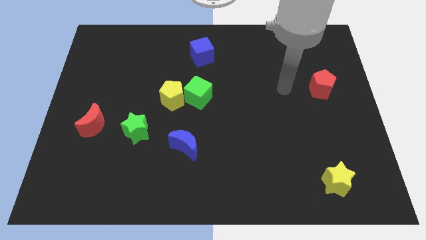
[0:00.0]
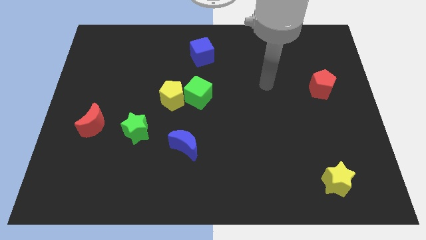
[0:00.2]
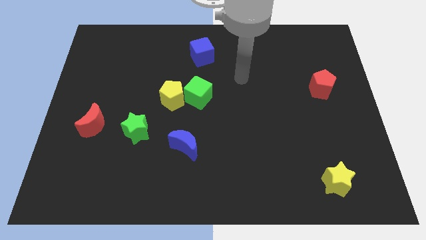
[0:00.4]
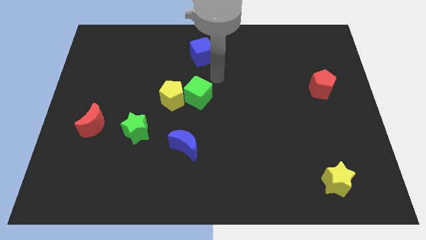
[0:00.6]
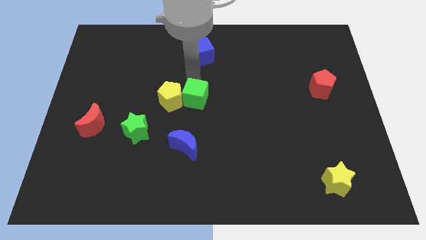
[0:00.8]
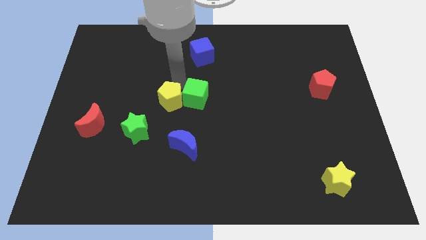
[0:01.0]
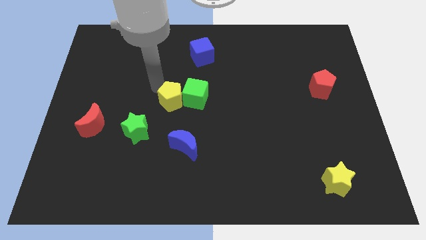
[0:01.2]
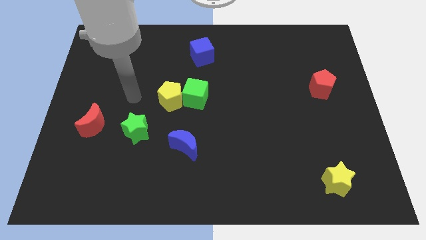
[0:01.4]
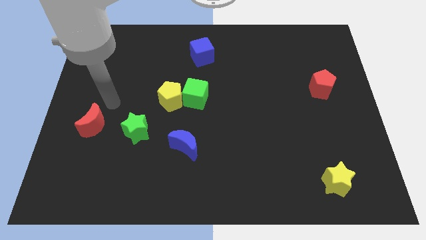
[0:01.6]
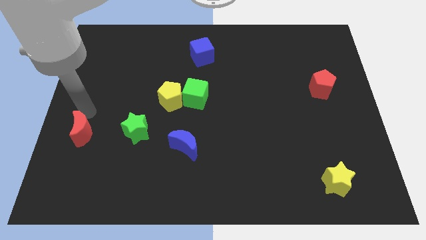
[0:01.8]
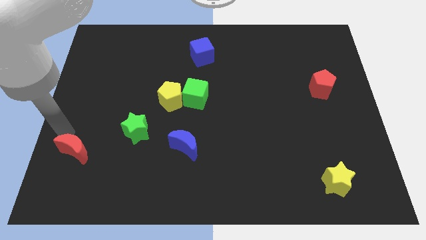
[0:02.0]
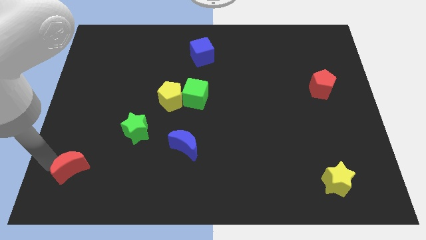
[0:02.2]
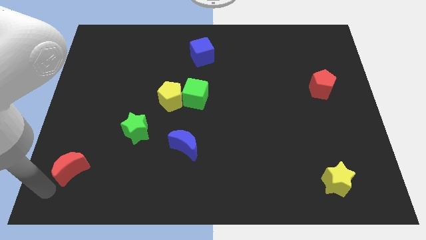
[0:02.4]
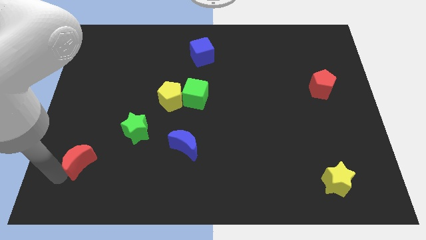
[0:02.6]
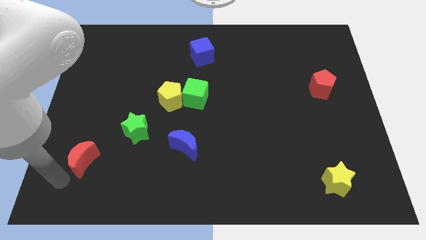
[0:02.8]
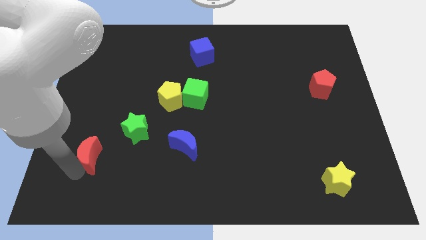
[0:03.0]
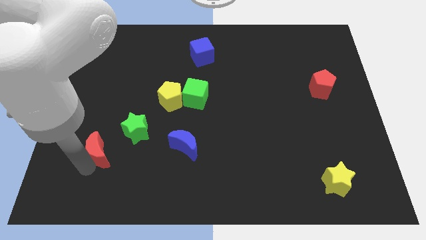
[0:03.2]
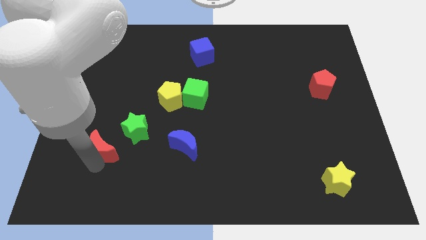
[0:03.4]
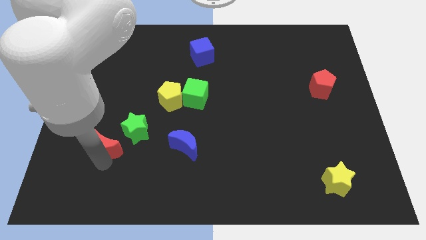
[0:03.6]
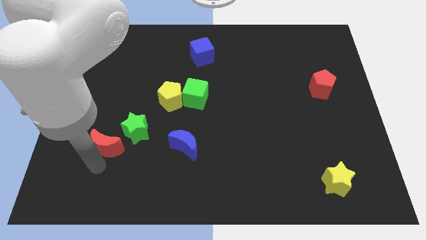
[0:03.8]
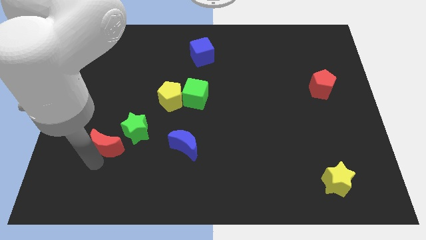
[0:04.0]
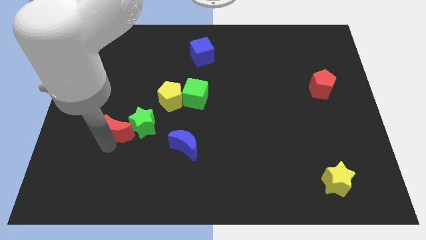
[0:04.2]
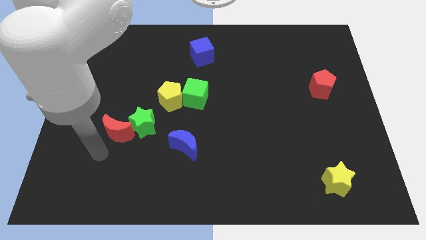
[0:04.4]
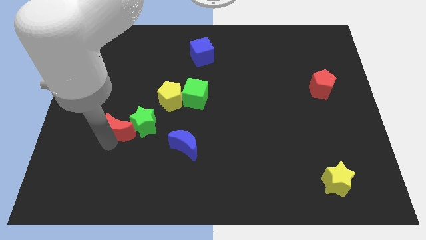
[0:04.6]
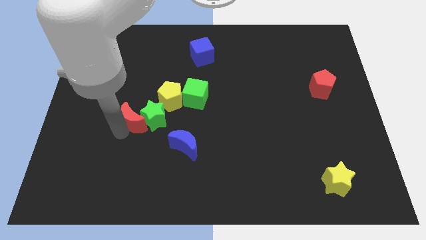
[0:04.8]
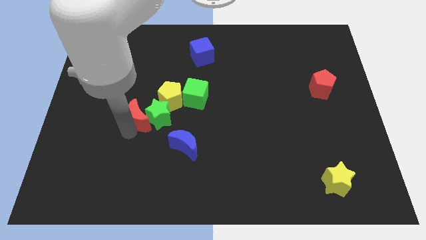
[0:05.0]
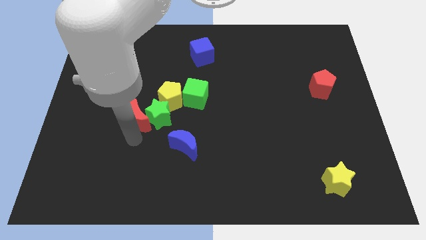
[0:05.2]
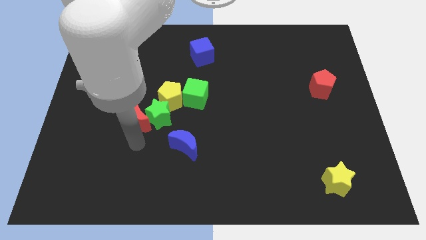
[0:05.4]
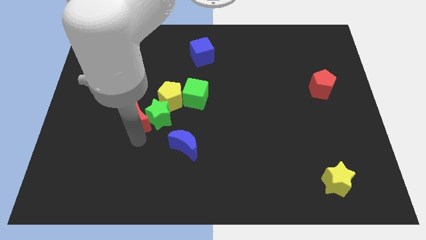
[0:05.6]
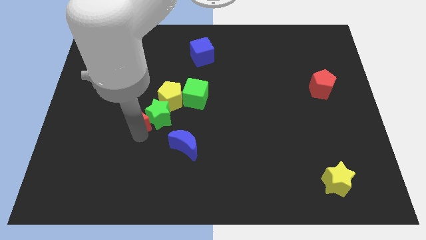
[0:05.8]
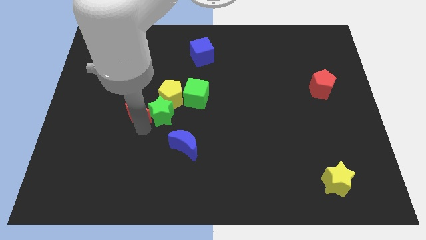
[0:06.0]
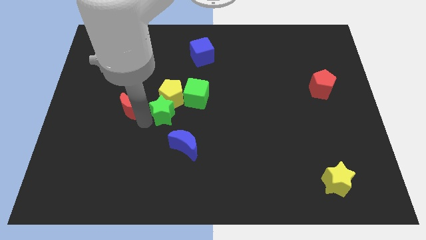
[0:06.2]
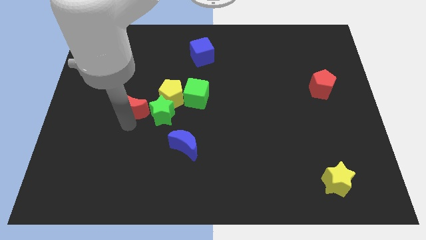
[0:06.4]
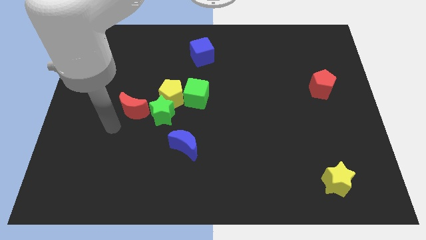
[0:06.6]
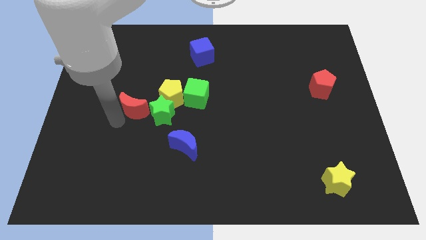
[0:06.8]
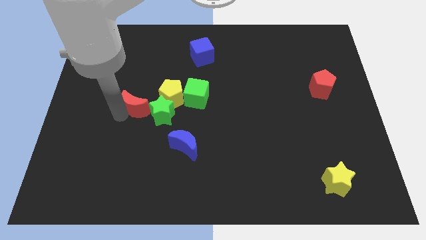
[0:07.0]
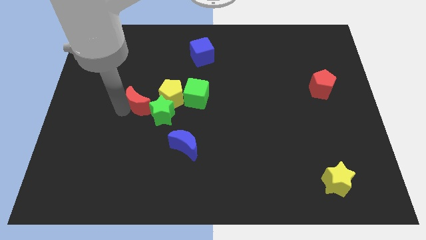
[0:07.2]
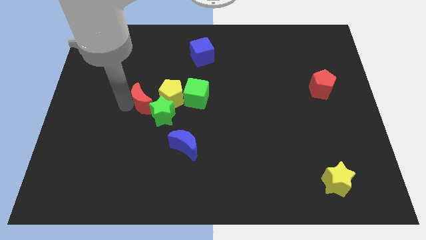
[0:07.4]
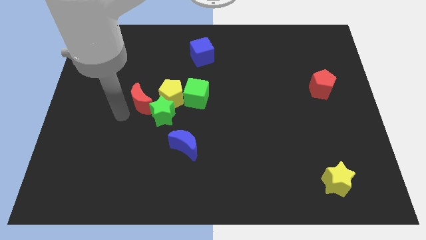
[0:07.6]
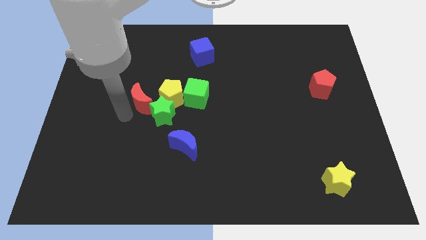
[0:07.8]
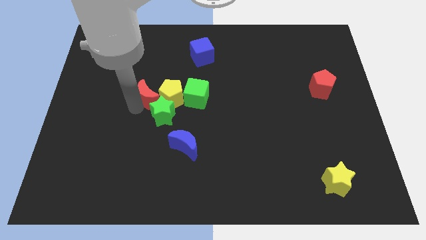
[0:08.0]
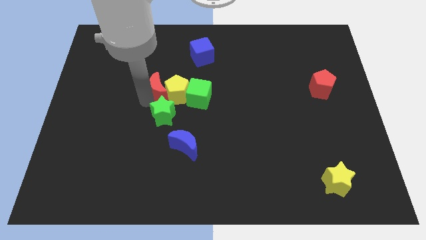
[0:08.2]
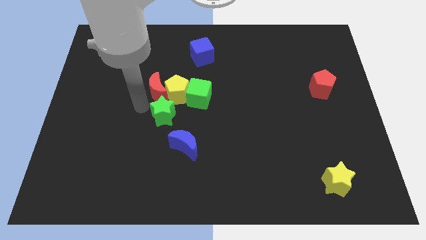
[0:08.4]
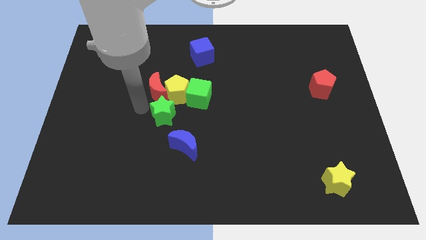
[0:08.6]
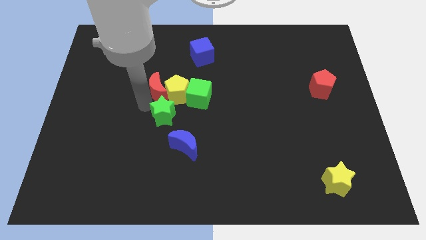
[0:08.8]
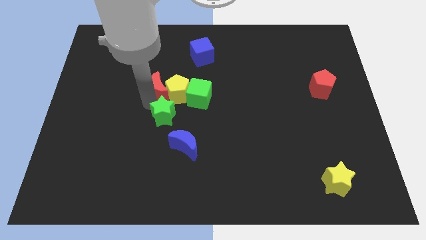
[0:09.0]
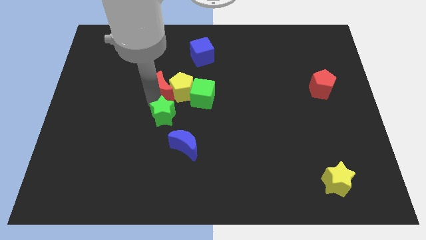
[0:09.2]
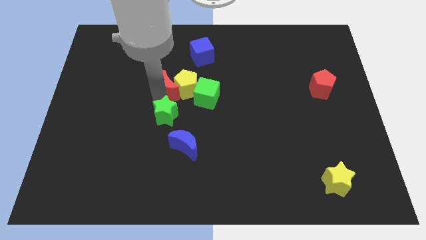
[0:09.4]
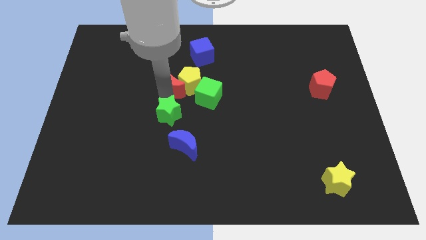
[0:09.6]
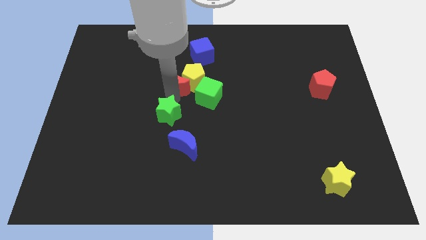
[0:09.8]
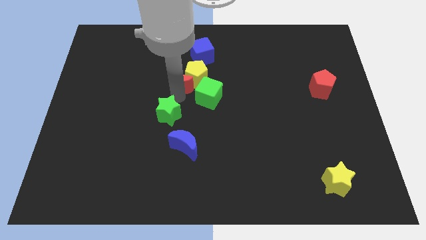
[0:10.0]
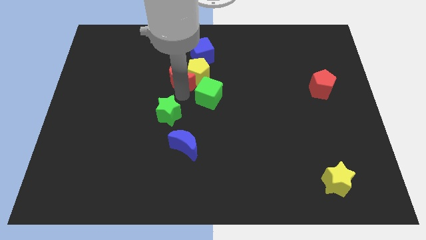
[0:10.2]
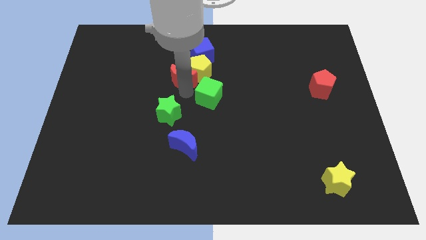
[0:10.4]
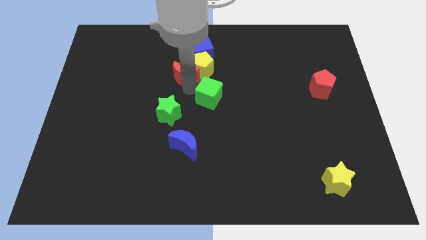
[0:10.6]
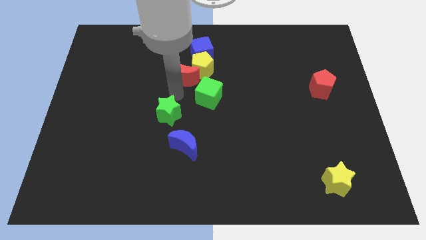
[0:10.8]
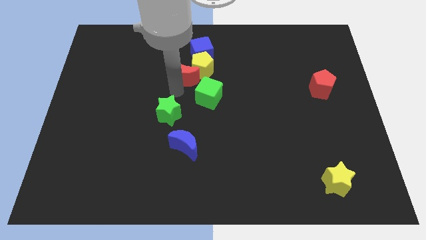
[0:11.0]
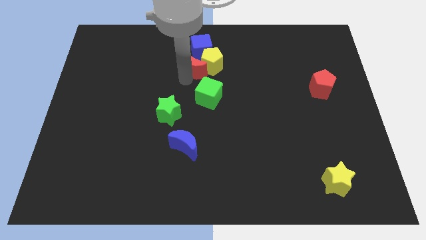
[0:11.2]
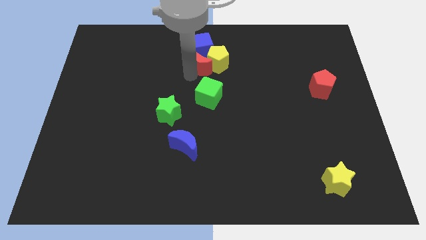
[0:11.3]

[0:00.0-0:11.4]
slide the red moon close to the blue cube
